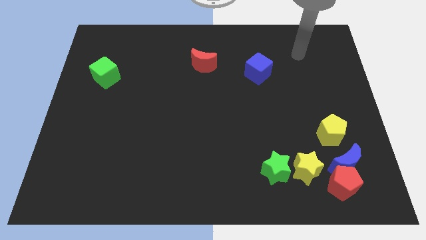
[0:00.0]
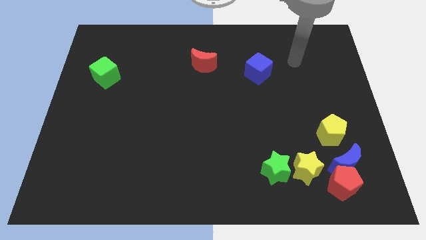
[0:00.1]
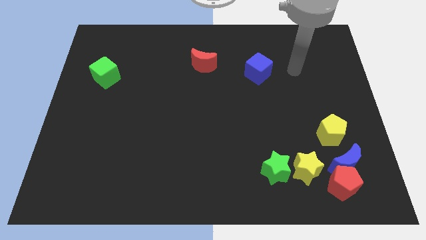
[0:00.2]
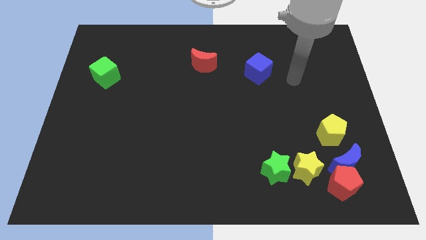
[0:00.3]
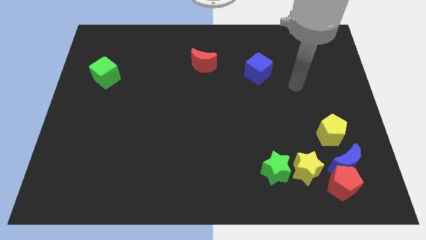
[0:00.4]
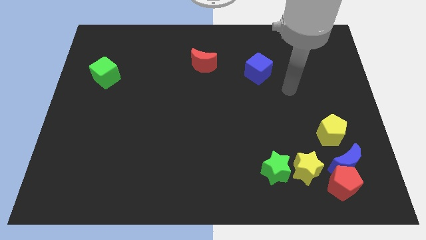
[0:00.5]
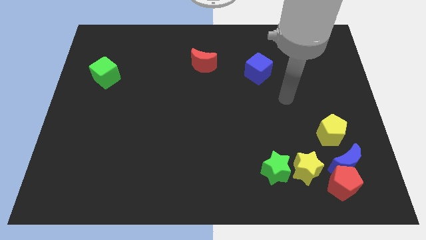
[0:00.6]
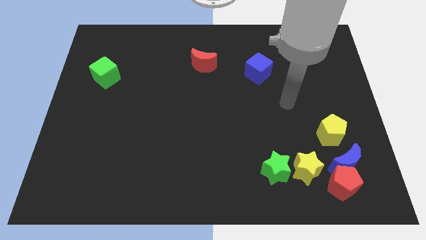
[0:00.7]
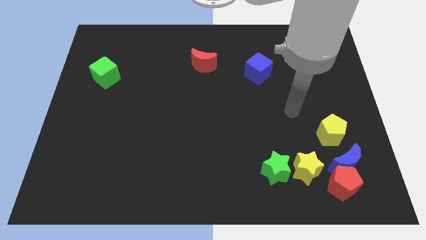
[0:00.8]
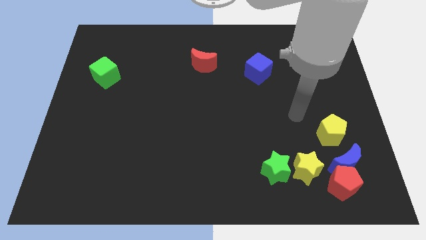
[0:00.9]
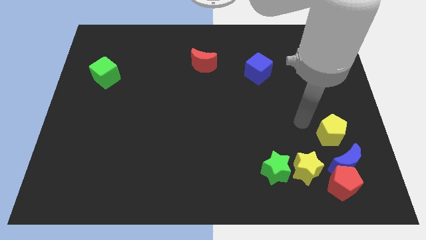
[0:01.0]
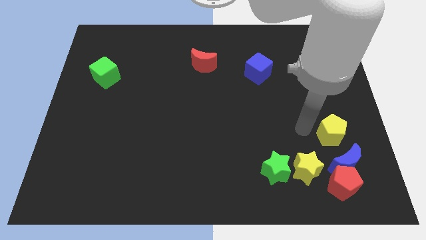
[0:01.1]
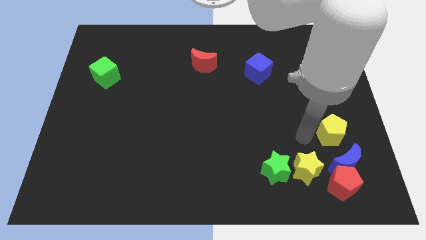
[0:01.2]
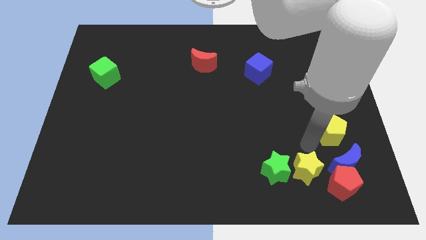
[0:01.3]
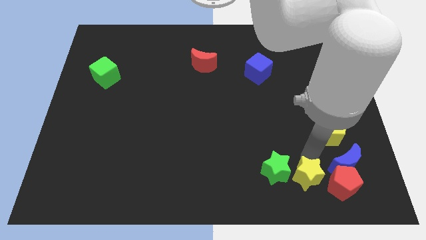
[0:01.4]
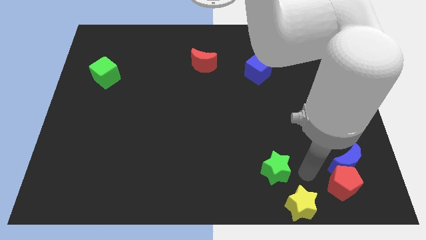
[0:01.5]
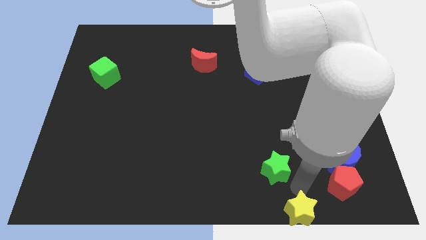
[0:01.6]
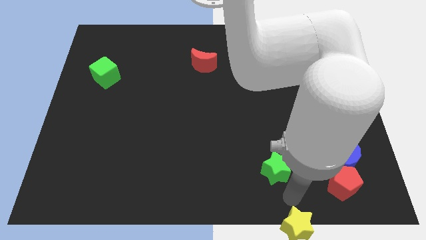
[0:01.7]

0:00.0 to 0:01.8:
move the green star away from the yellow star

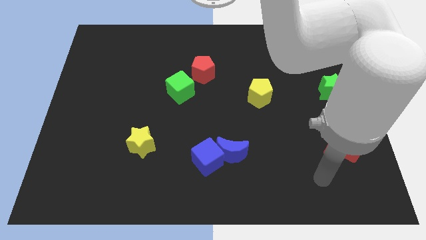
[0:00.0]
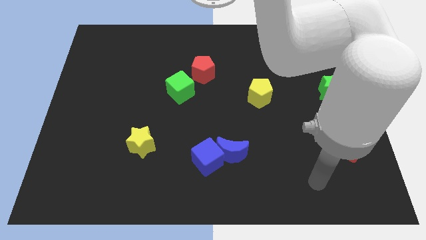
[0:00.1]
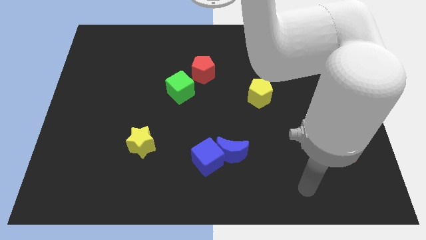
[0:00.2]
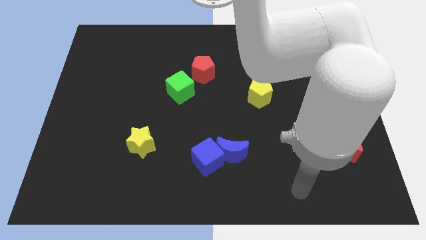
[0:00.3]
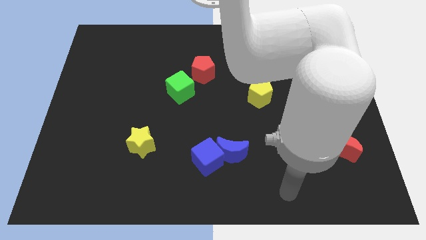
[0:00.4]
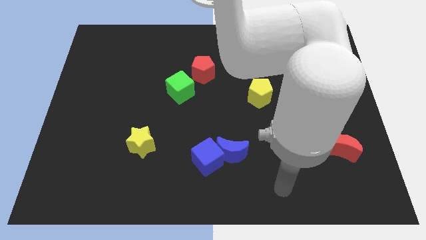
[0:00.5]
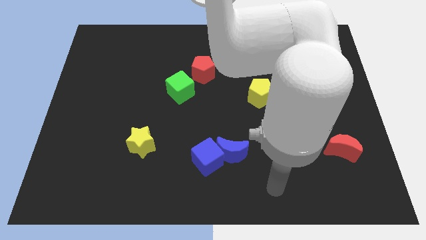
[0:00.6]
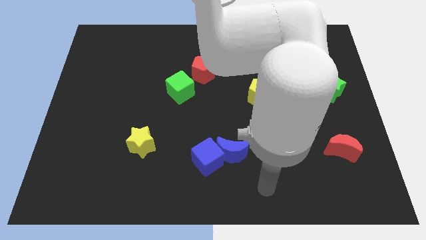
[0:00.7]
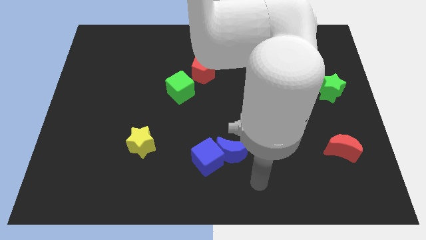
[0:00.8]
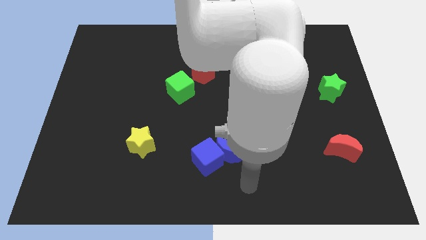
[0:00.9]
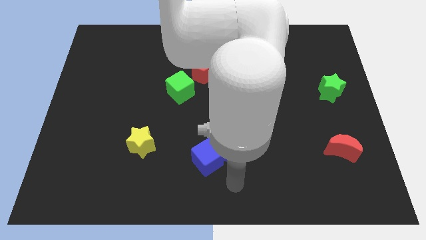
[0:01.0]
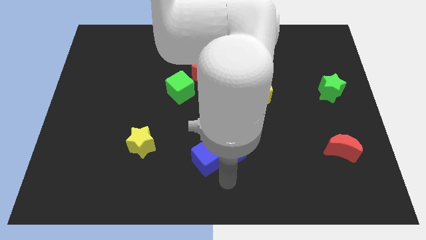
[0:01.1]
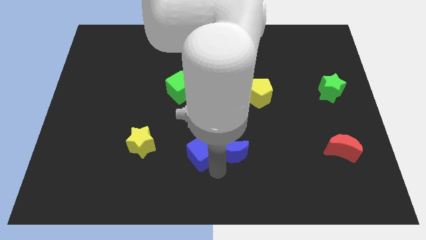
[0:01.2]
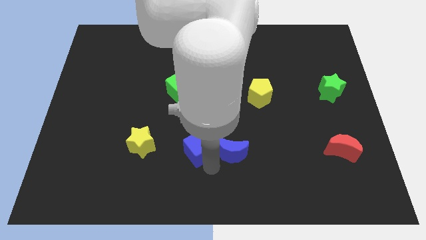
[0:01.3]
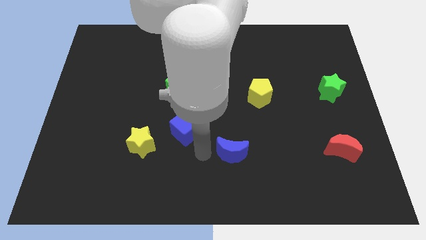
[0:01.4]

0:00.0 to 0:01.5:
pull the blue moon apart from the blue cube

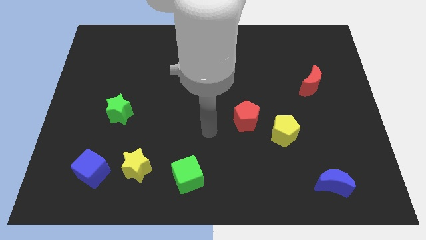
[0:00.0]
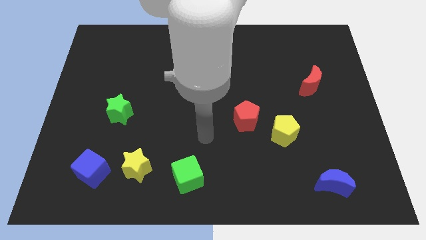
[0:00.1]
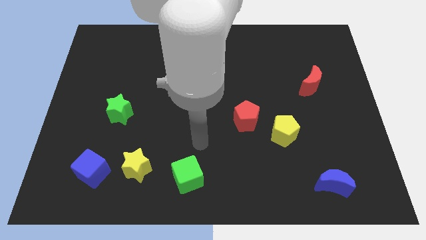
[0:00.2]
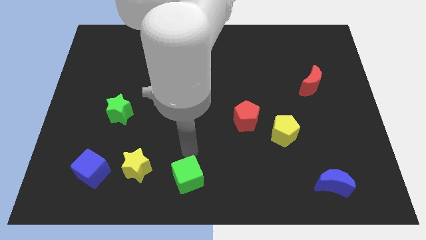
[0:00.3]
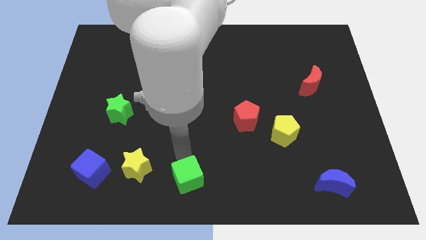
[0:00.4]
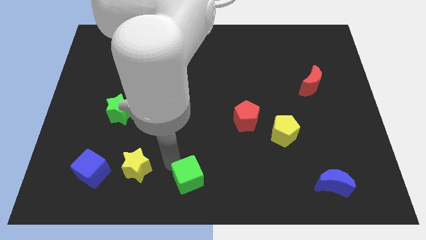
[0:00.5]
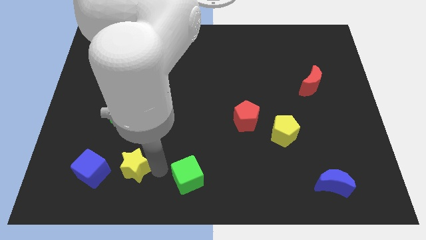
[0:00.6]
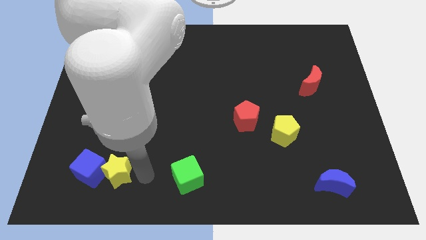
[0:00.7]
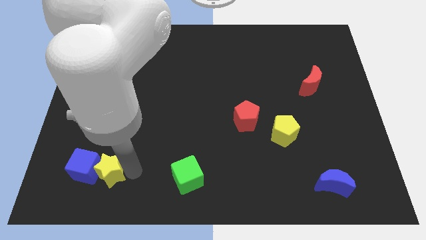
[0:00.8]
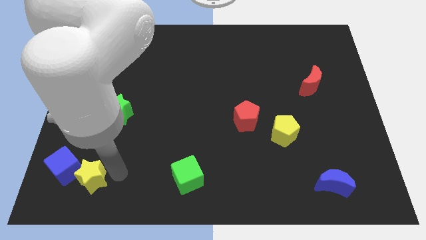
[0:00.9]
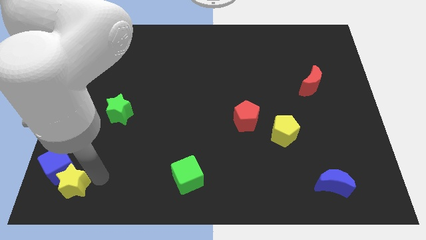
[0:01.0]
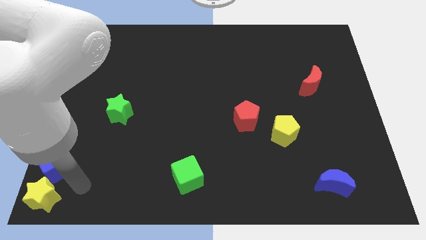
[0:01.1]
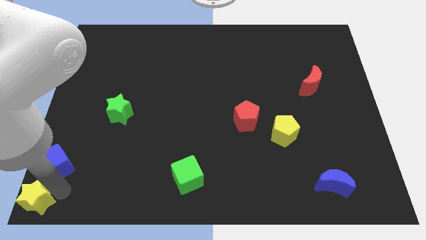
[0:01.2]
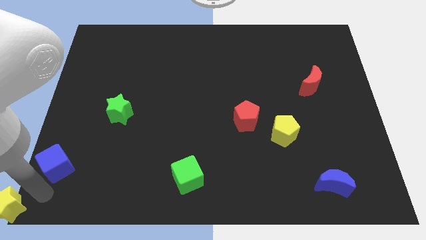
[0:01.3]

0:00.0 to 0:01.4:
pull the blue cube apart from the yellow star

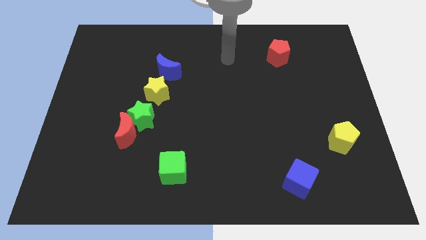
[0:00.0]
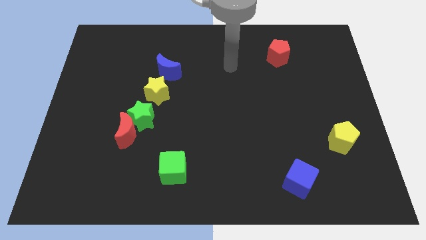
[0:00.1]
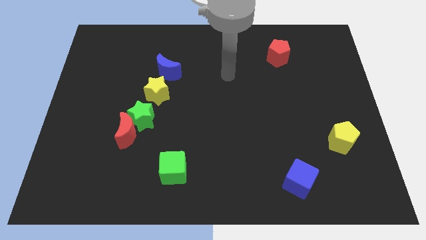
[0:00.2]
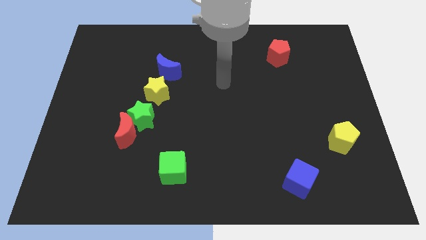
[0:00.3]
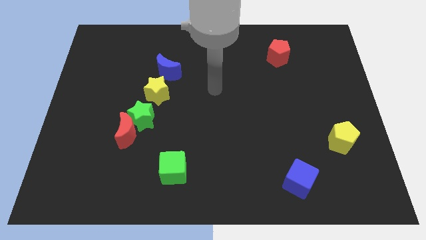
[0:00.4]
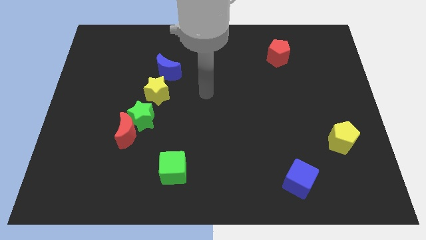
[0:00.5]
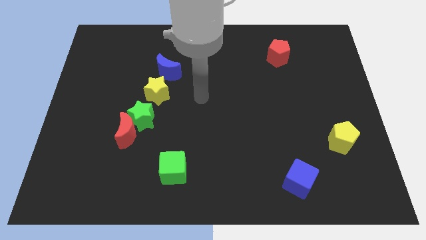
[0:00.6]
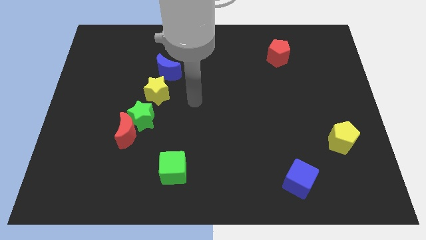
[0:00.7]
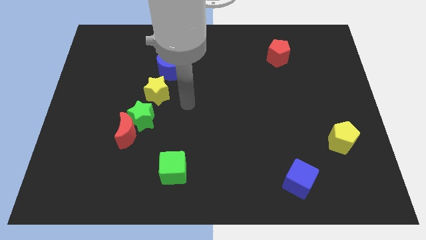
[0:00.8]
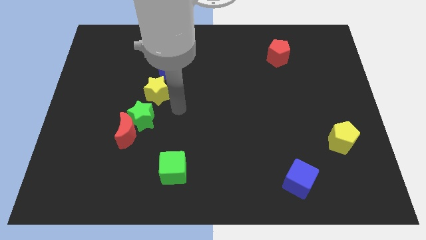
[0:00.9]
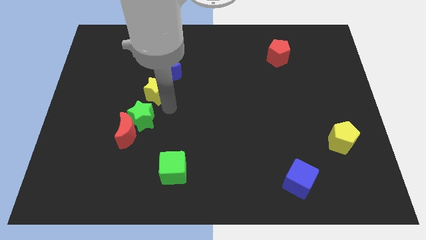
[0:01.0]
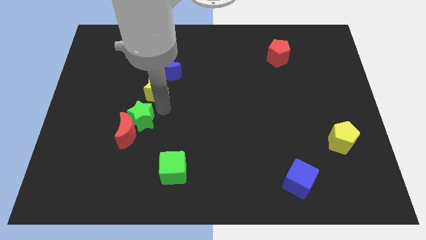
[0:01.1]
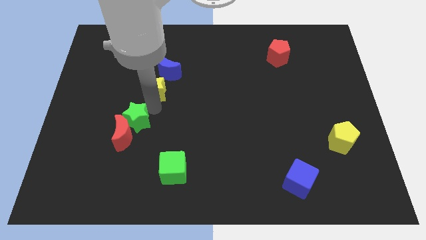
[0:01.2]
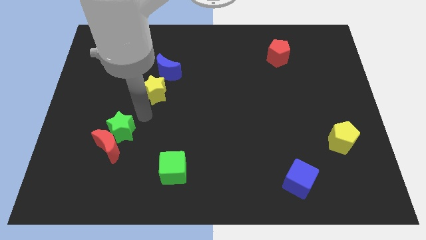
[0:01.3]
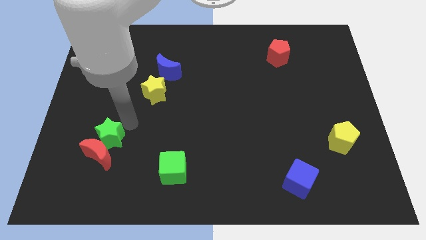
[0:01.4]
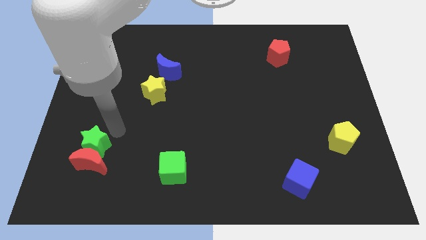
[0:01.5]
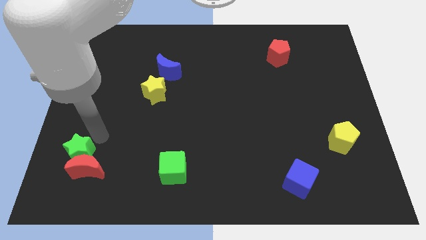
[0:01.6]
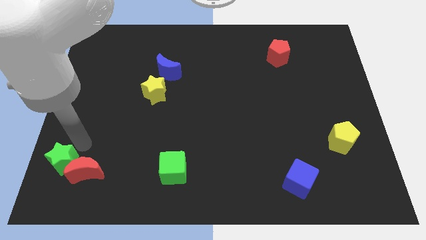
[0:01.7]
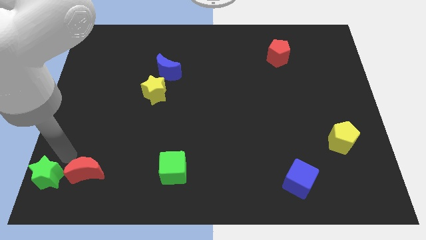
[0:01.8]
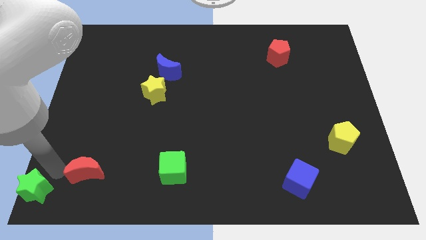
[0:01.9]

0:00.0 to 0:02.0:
pull the red moon apart from the green star

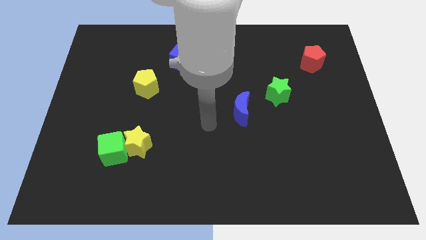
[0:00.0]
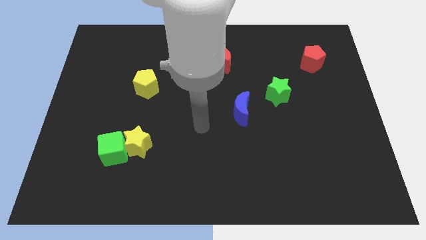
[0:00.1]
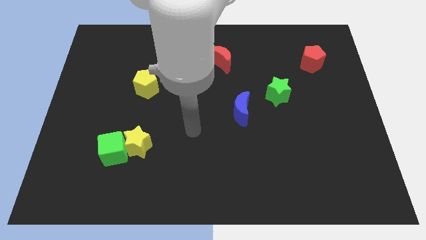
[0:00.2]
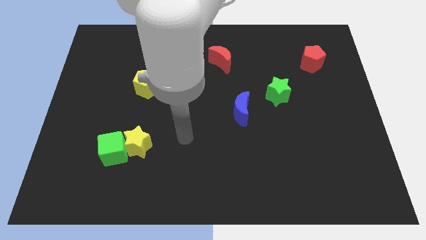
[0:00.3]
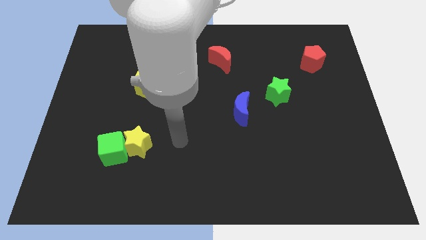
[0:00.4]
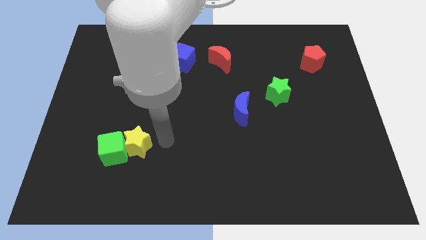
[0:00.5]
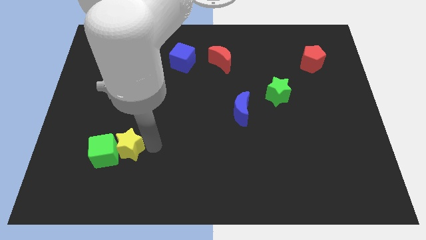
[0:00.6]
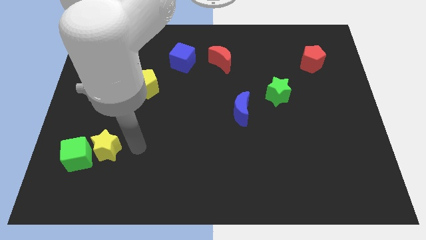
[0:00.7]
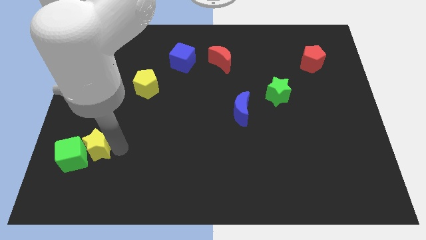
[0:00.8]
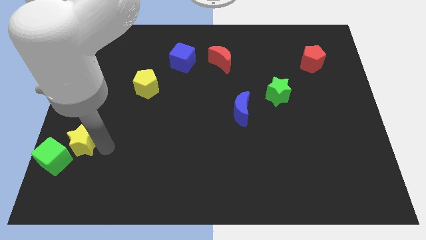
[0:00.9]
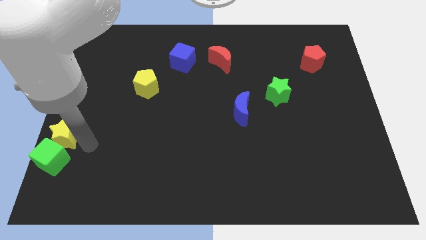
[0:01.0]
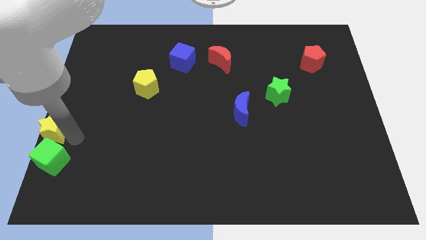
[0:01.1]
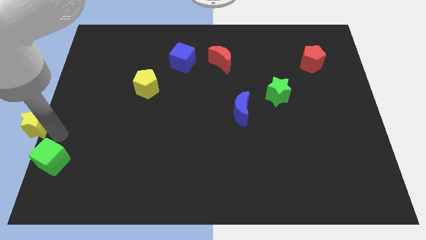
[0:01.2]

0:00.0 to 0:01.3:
pull the green cube apart from the yellow star

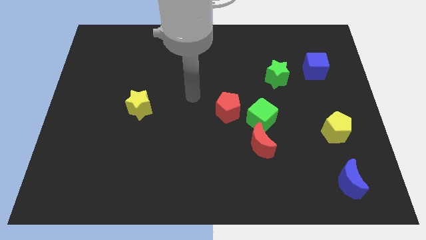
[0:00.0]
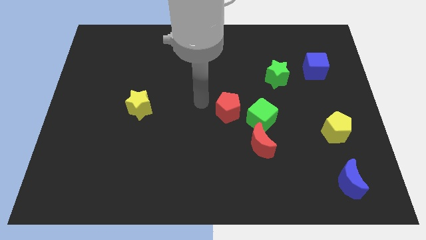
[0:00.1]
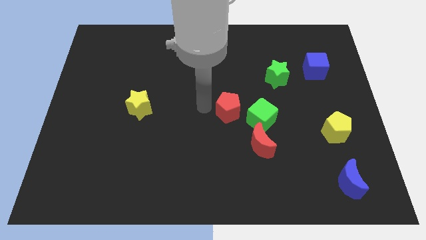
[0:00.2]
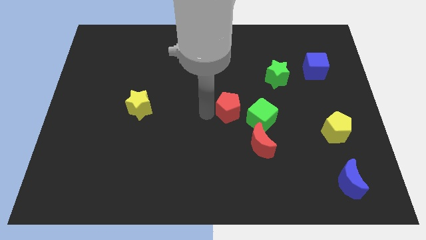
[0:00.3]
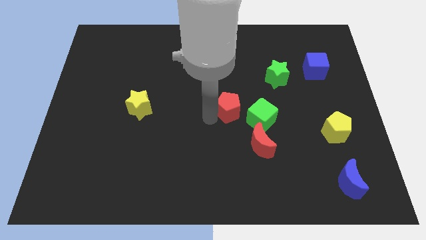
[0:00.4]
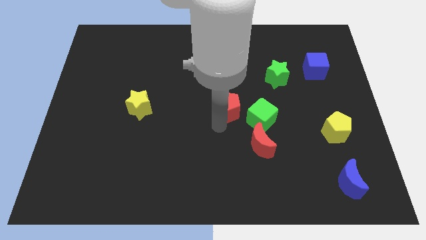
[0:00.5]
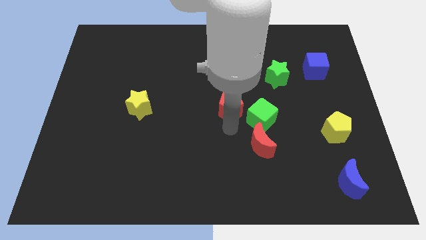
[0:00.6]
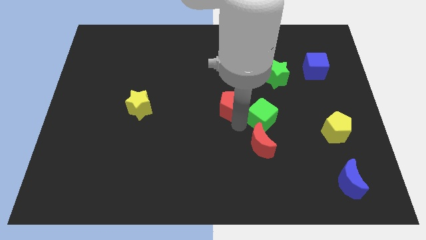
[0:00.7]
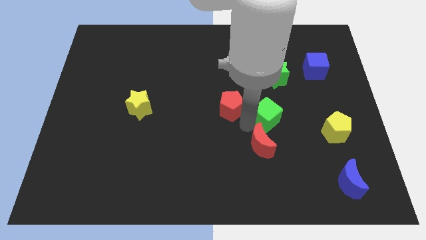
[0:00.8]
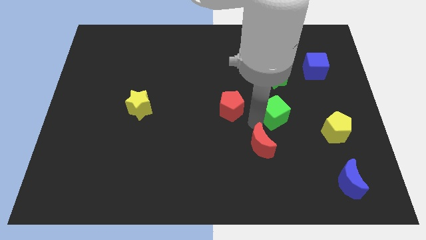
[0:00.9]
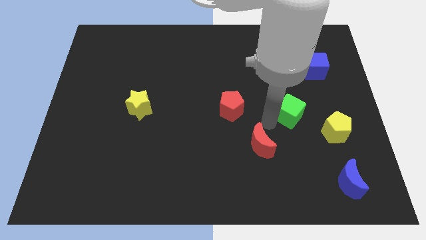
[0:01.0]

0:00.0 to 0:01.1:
move the red moon away from the green cube

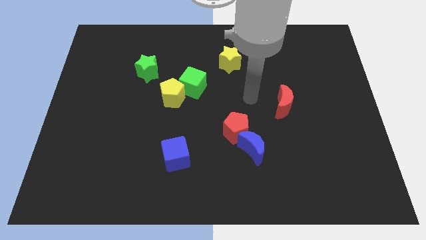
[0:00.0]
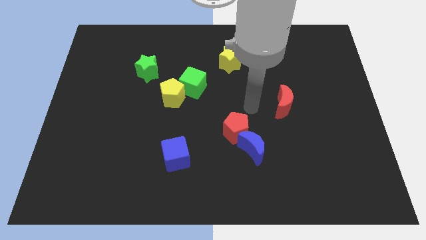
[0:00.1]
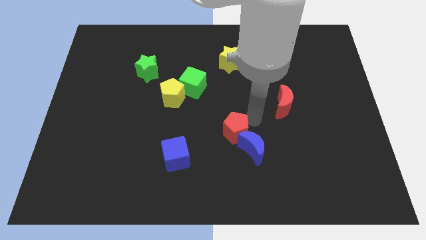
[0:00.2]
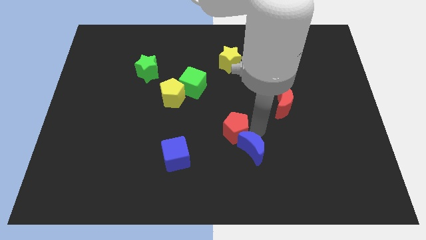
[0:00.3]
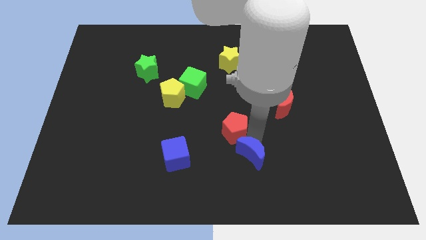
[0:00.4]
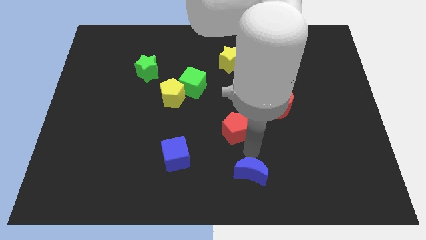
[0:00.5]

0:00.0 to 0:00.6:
separate the red pentagon from the blue moon
